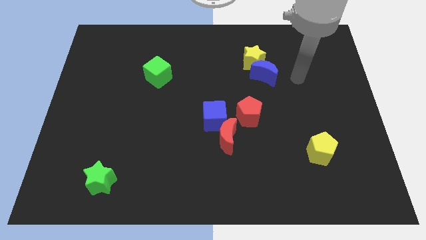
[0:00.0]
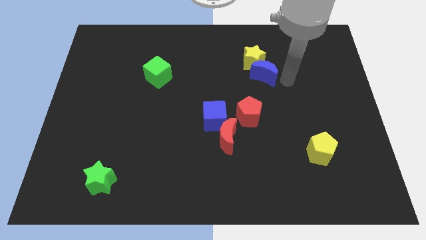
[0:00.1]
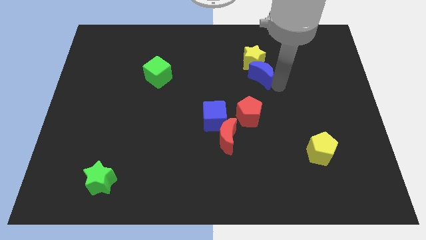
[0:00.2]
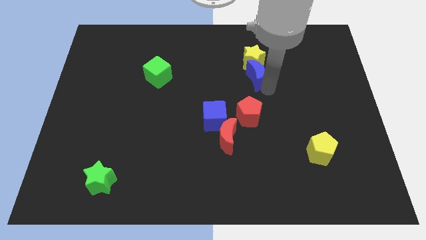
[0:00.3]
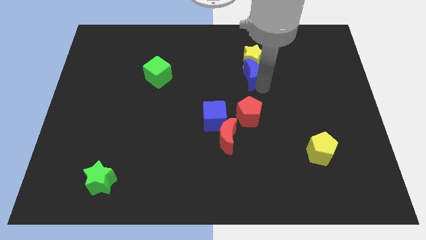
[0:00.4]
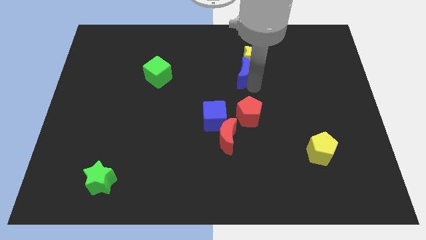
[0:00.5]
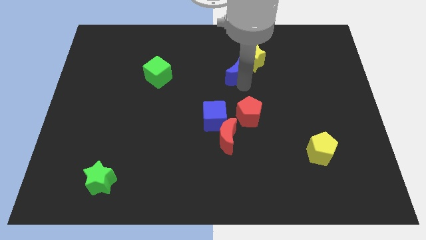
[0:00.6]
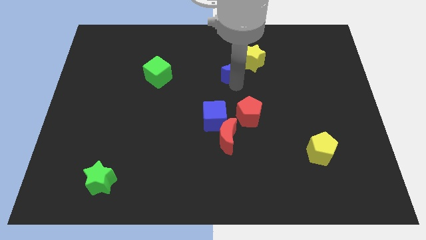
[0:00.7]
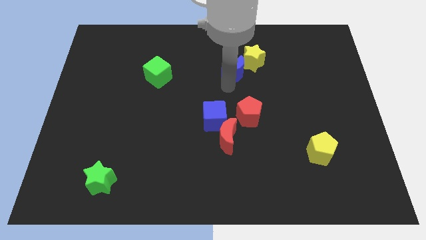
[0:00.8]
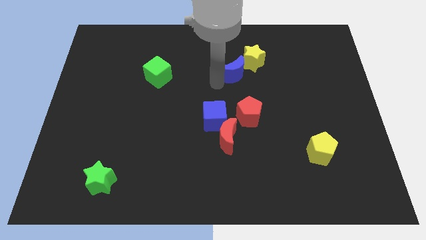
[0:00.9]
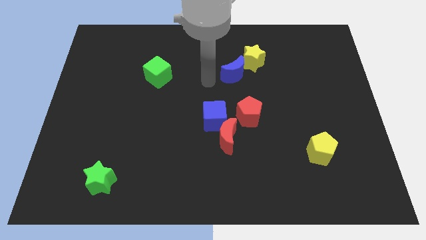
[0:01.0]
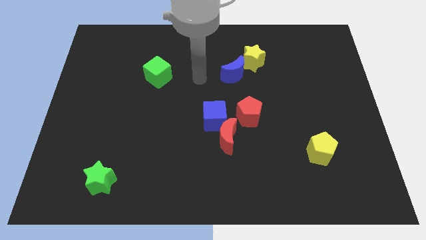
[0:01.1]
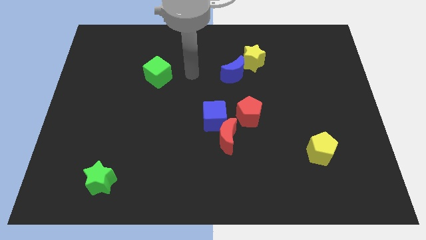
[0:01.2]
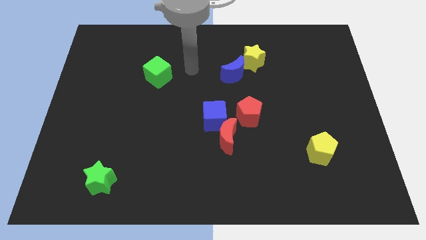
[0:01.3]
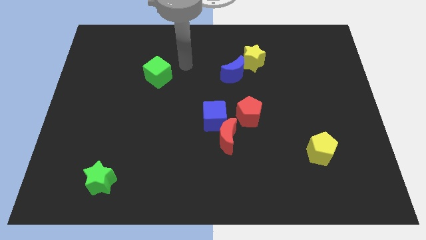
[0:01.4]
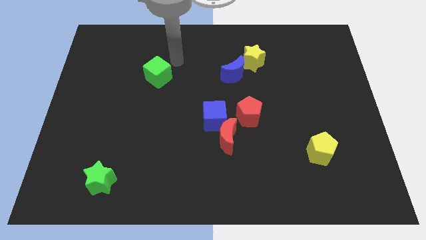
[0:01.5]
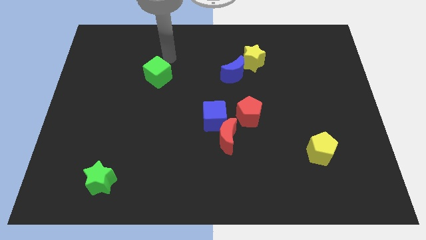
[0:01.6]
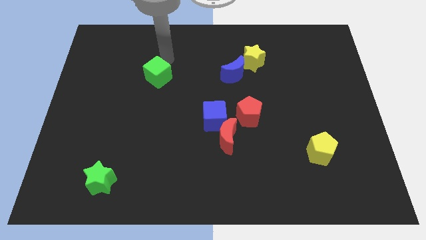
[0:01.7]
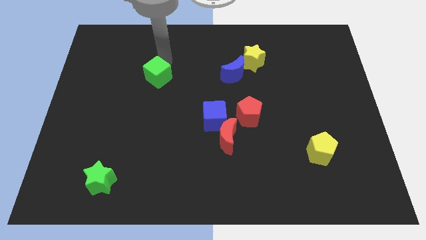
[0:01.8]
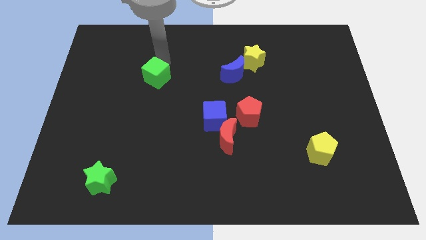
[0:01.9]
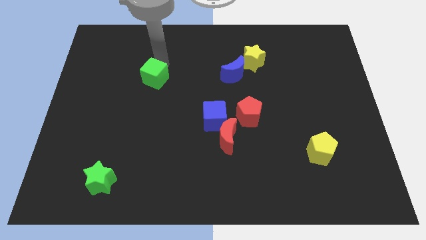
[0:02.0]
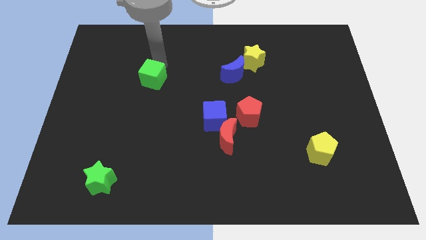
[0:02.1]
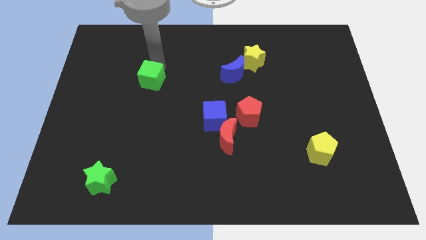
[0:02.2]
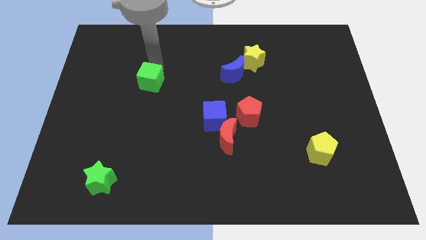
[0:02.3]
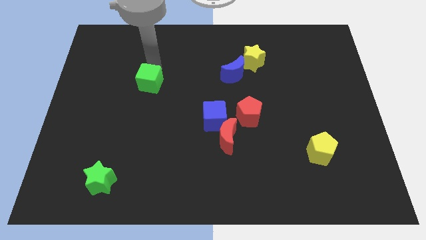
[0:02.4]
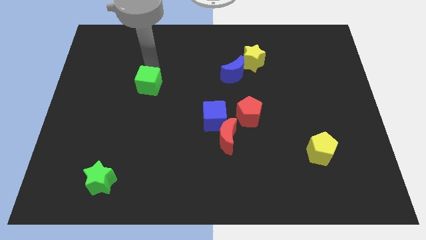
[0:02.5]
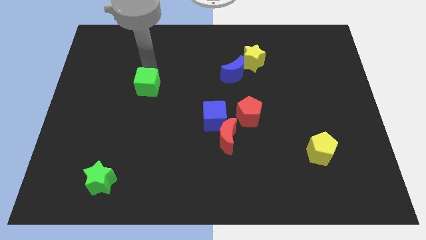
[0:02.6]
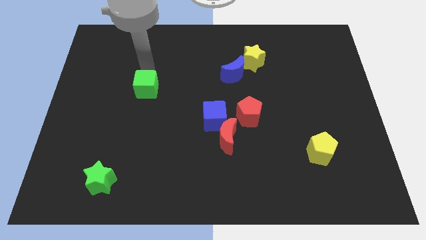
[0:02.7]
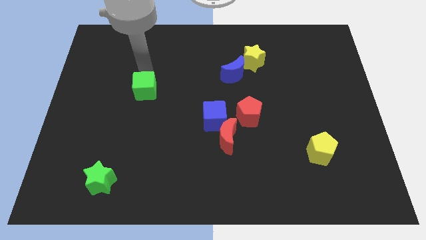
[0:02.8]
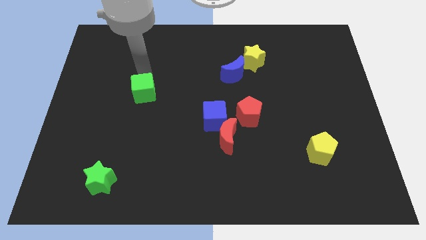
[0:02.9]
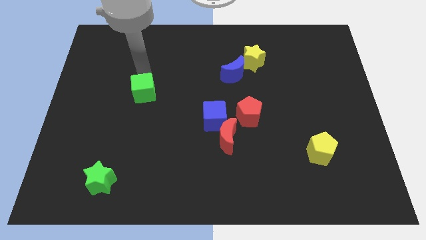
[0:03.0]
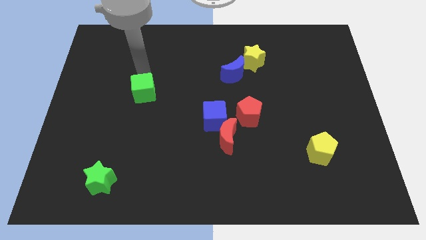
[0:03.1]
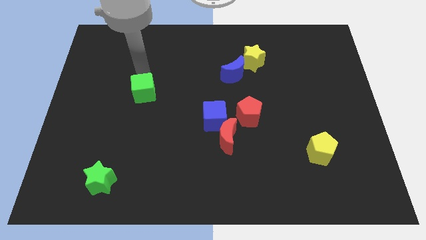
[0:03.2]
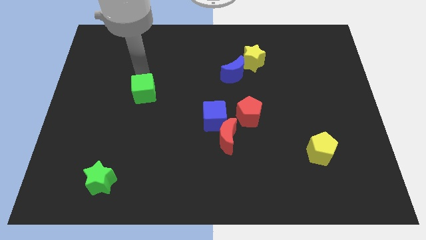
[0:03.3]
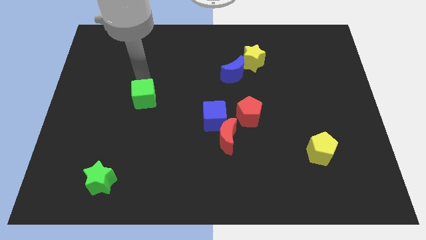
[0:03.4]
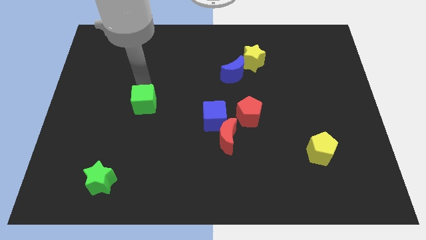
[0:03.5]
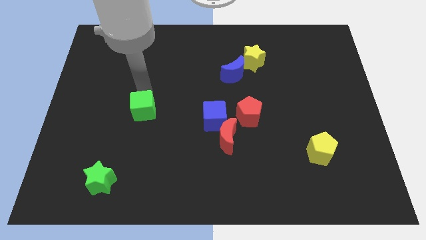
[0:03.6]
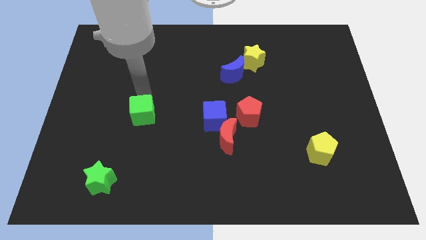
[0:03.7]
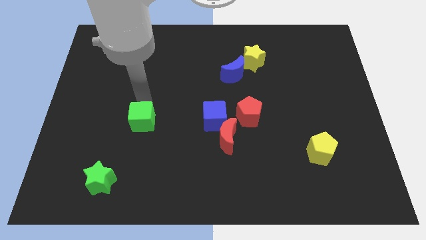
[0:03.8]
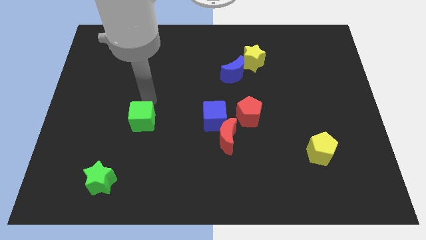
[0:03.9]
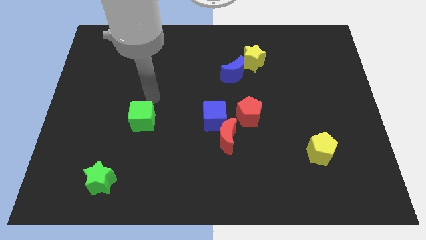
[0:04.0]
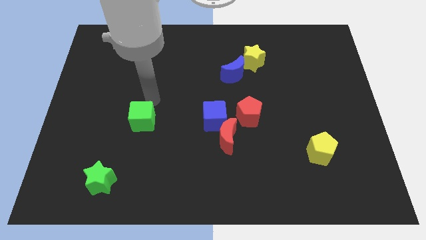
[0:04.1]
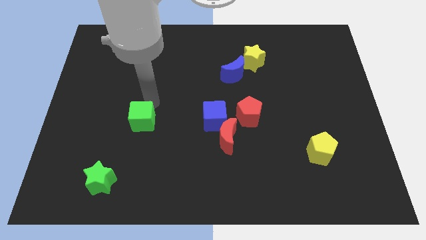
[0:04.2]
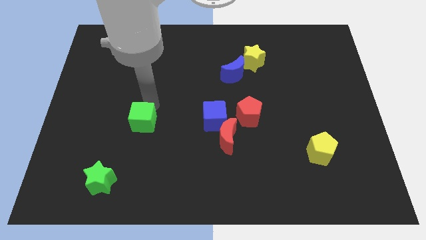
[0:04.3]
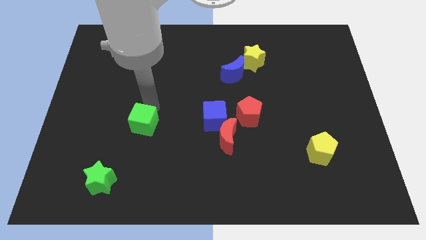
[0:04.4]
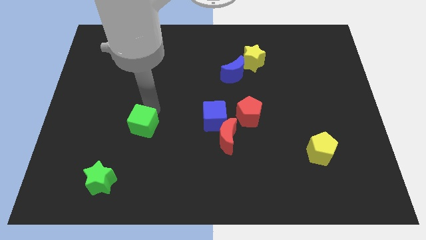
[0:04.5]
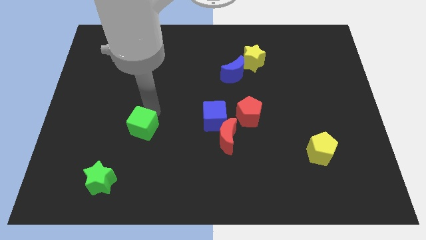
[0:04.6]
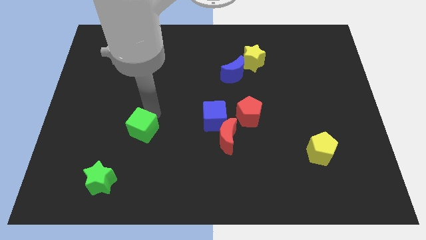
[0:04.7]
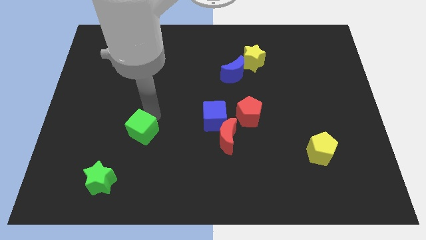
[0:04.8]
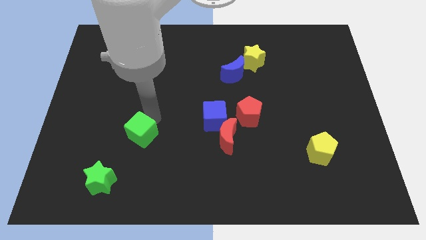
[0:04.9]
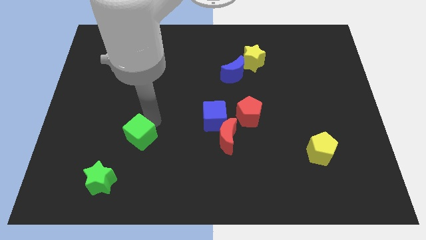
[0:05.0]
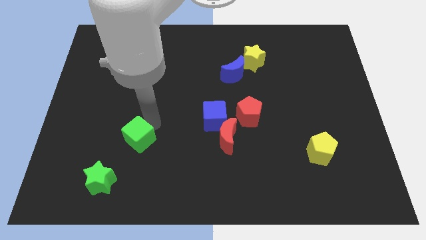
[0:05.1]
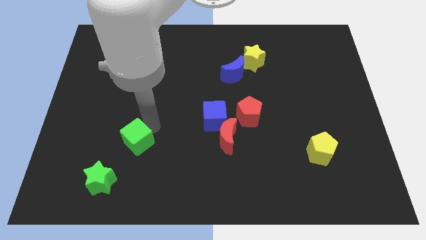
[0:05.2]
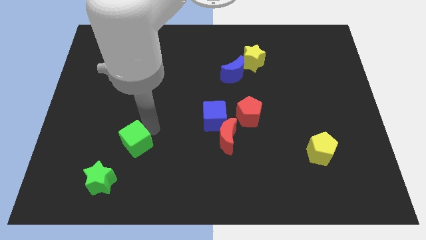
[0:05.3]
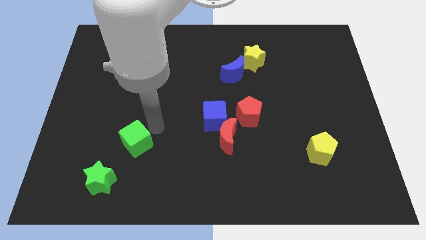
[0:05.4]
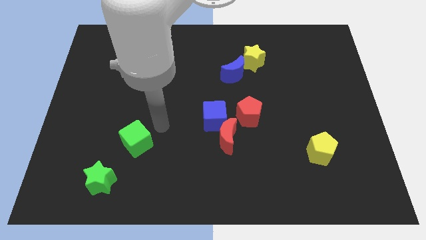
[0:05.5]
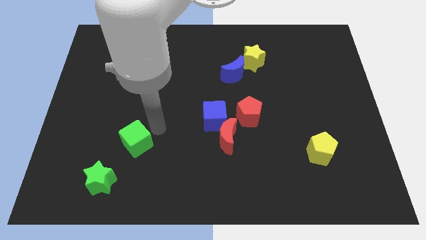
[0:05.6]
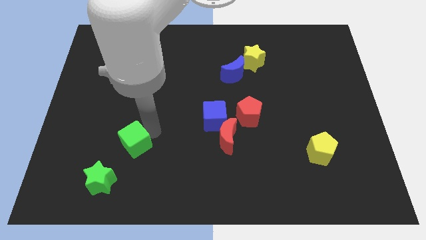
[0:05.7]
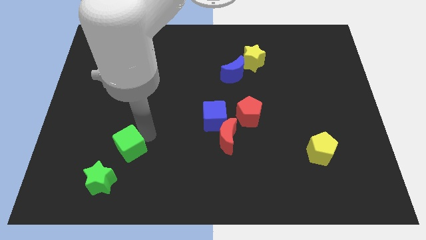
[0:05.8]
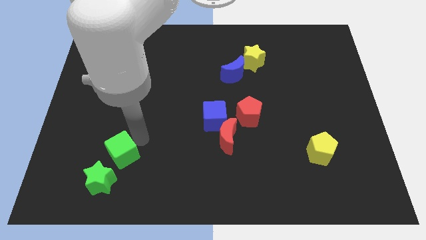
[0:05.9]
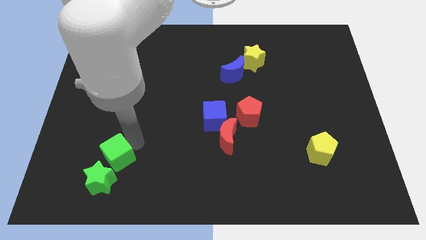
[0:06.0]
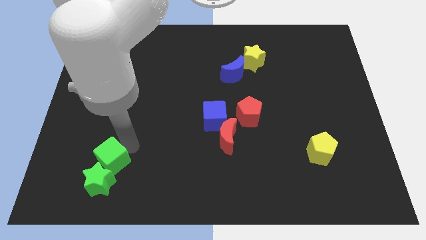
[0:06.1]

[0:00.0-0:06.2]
slide the green cube next to the green star

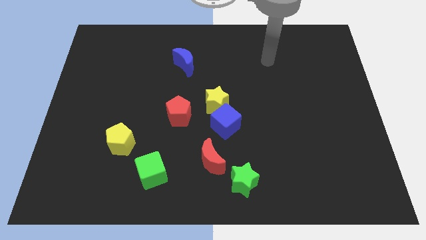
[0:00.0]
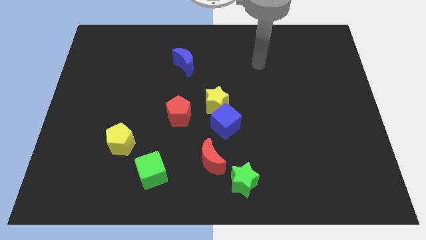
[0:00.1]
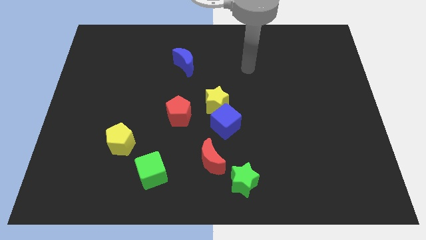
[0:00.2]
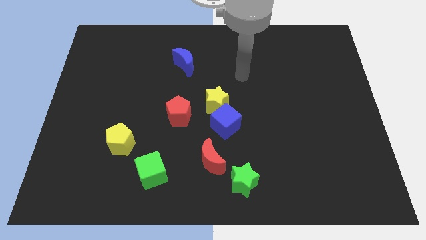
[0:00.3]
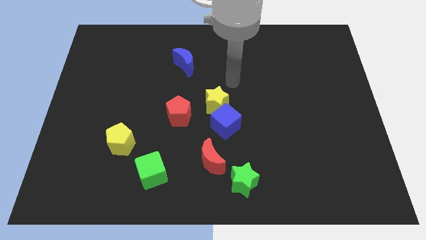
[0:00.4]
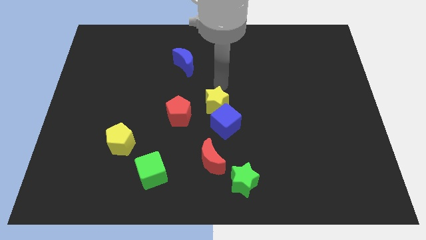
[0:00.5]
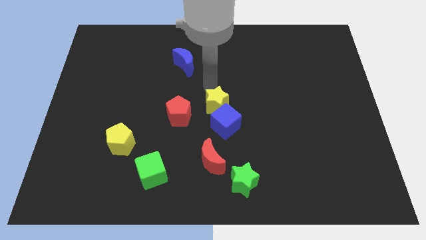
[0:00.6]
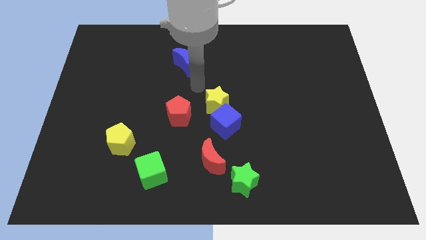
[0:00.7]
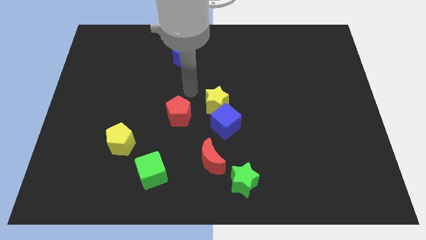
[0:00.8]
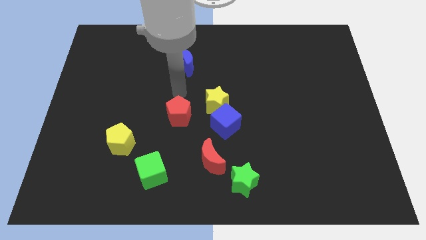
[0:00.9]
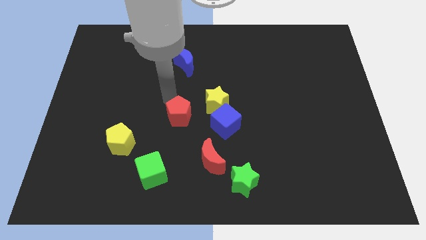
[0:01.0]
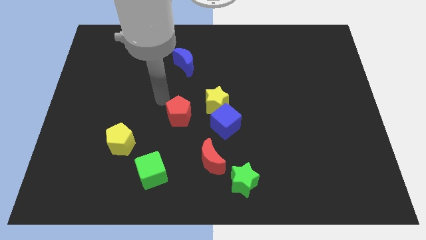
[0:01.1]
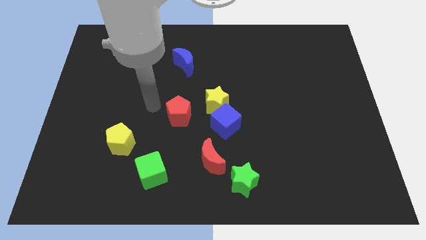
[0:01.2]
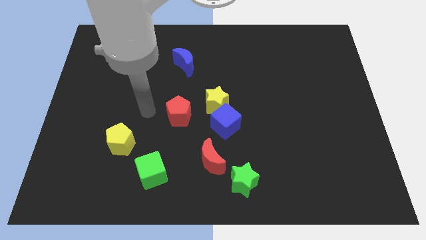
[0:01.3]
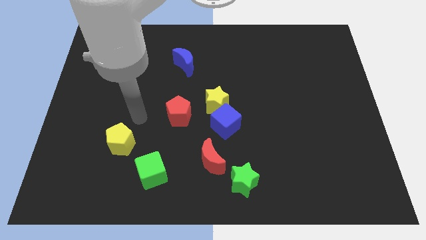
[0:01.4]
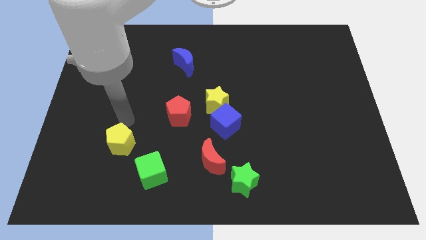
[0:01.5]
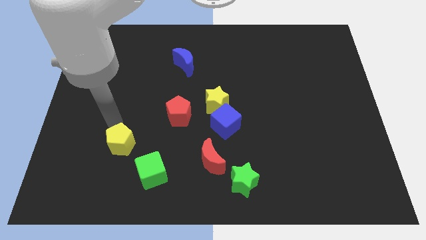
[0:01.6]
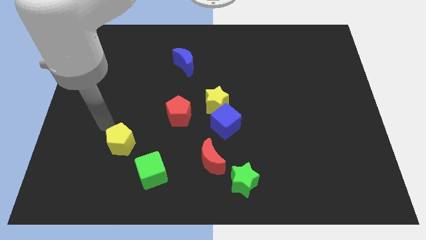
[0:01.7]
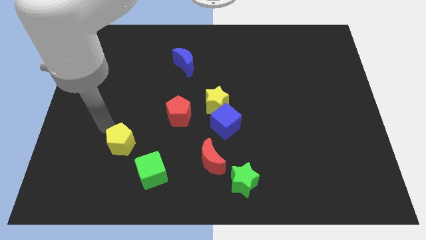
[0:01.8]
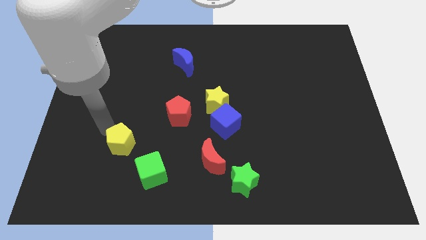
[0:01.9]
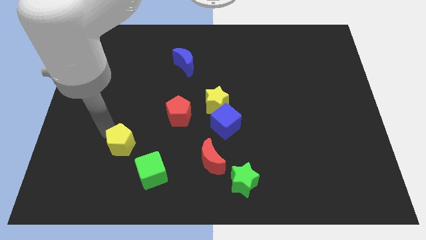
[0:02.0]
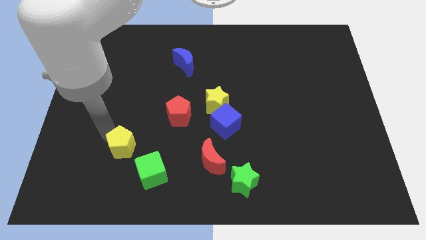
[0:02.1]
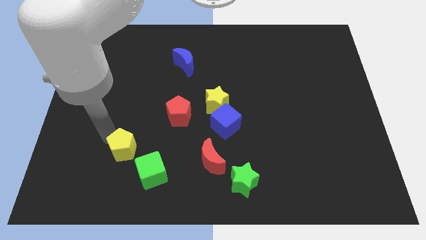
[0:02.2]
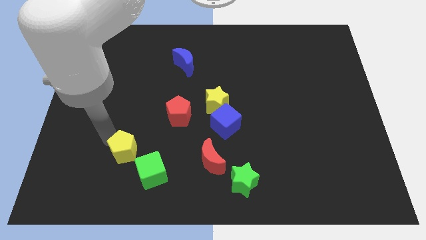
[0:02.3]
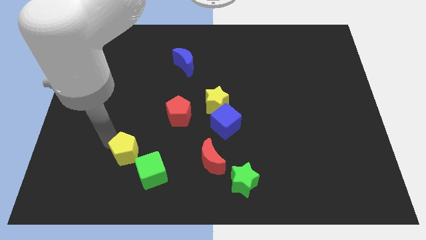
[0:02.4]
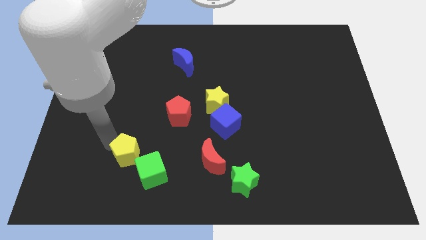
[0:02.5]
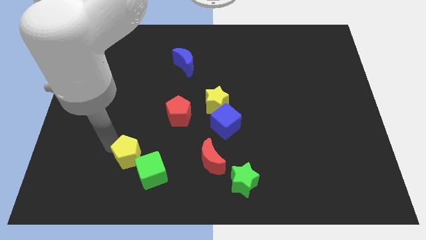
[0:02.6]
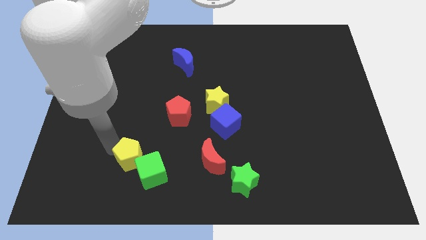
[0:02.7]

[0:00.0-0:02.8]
slide the yellow pentagon to the green cube
